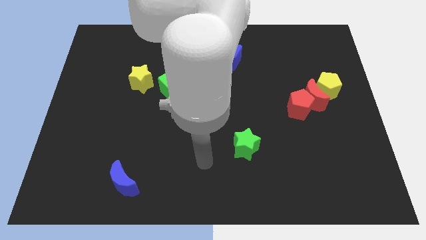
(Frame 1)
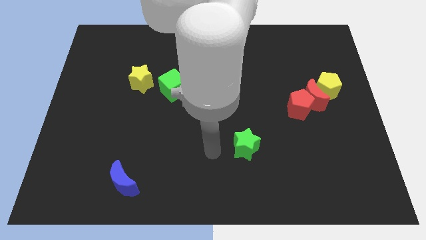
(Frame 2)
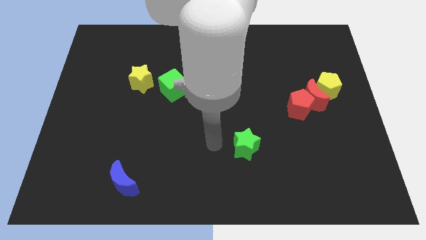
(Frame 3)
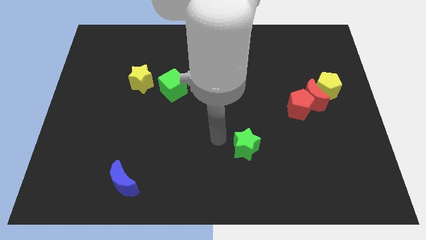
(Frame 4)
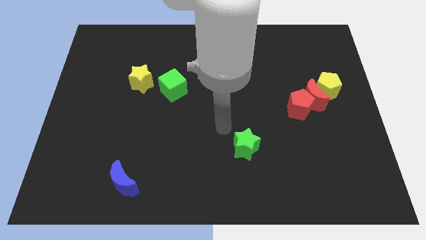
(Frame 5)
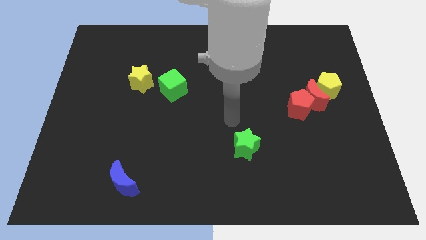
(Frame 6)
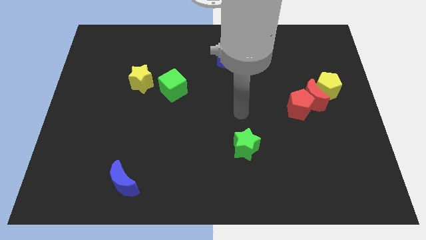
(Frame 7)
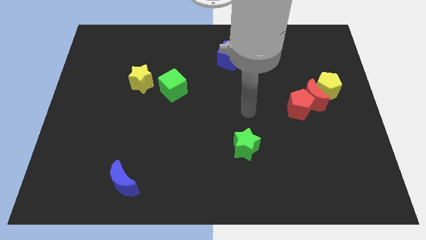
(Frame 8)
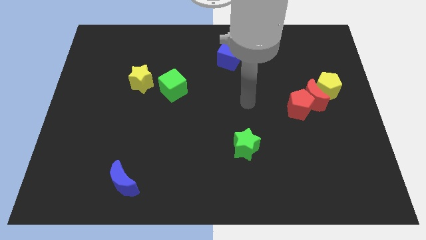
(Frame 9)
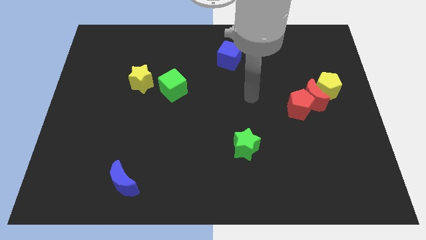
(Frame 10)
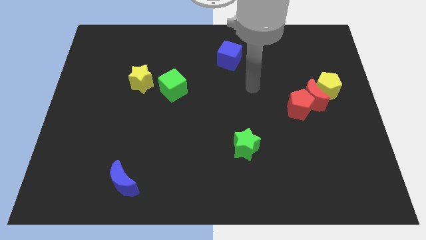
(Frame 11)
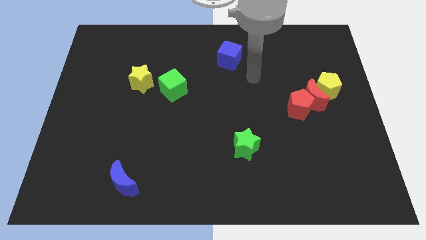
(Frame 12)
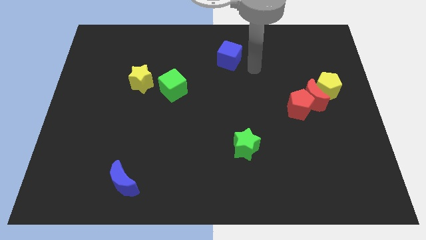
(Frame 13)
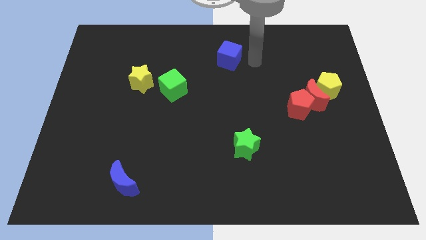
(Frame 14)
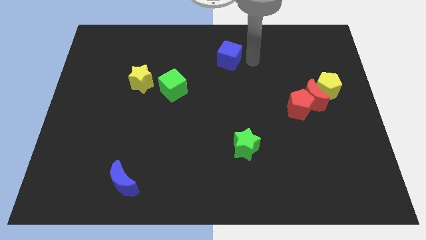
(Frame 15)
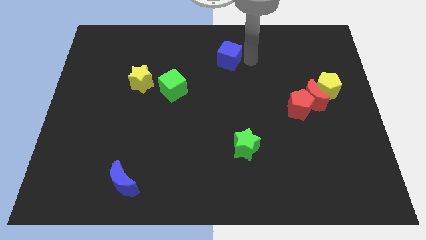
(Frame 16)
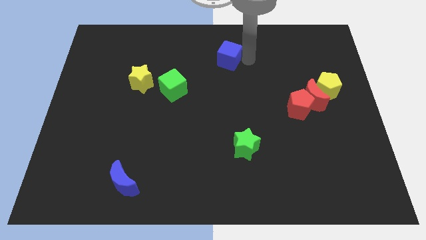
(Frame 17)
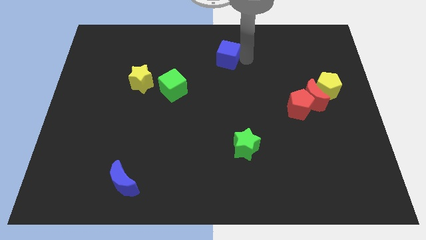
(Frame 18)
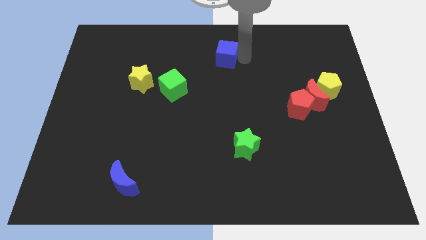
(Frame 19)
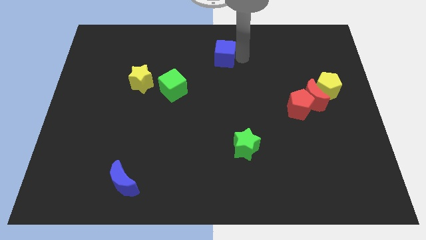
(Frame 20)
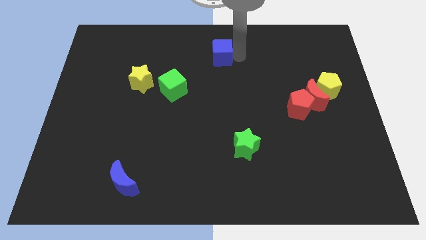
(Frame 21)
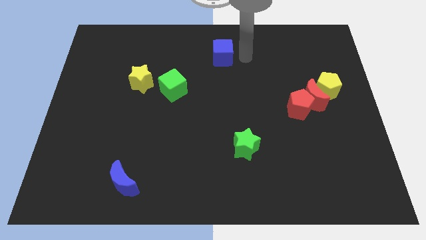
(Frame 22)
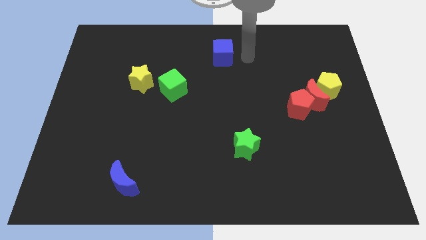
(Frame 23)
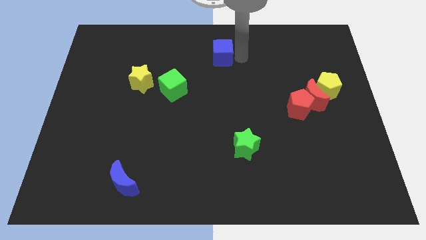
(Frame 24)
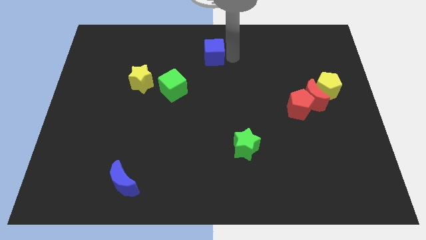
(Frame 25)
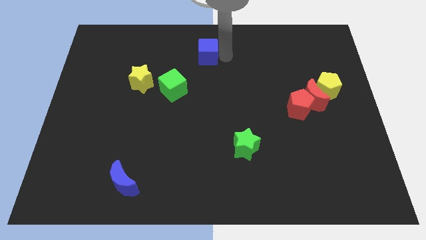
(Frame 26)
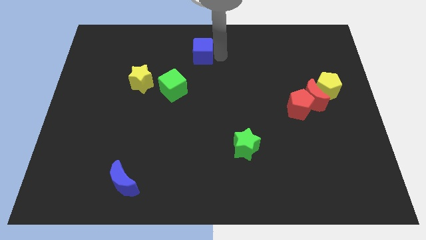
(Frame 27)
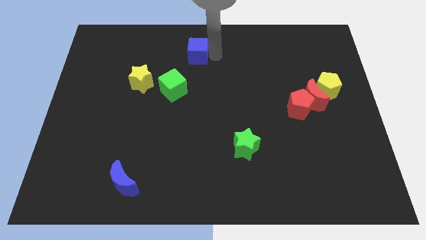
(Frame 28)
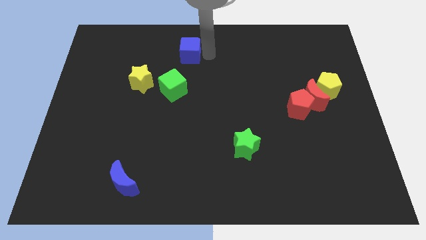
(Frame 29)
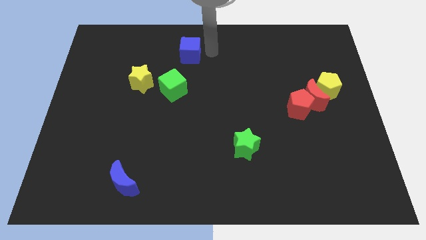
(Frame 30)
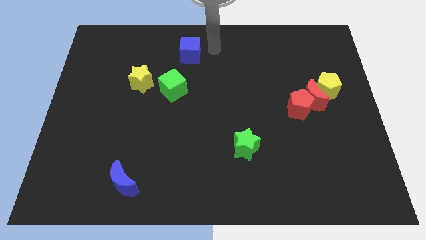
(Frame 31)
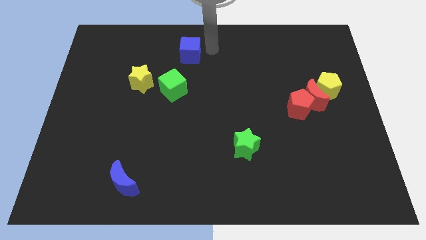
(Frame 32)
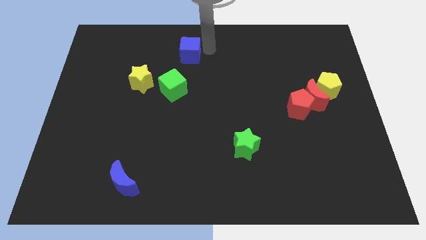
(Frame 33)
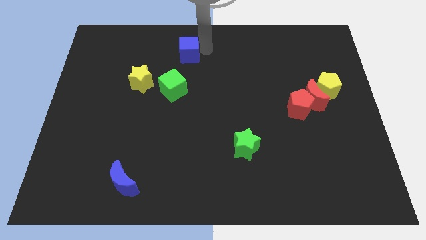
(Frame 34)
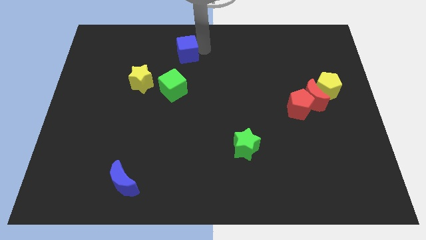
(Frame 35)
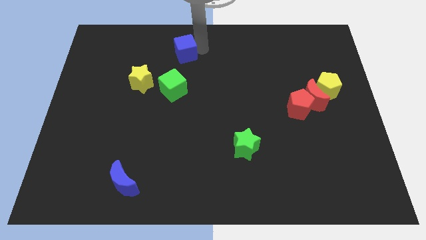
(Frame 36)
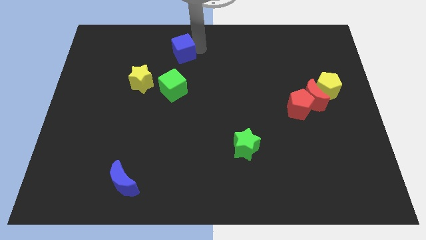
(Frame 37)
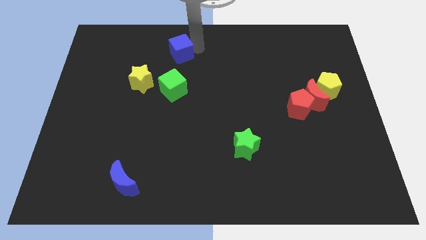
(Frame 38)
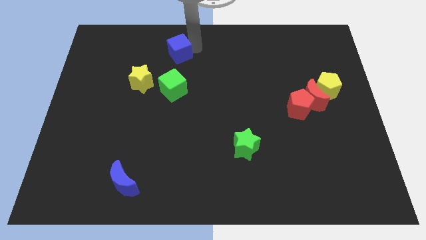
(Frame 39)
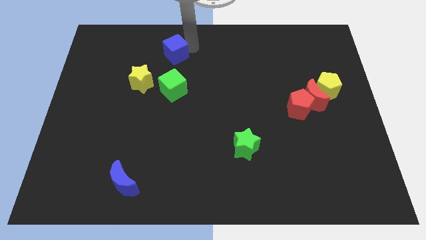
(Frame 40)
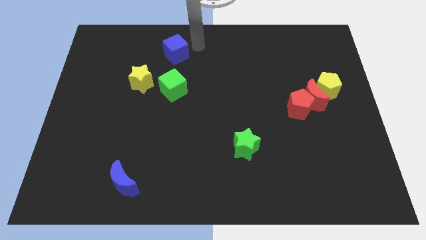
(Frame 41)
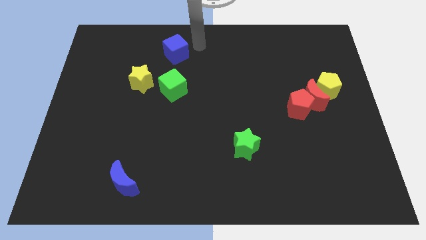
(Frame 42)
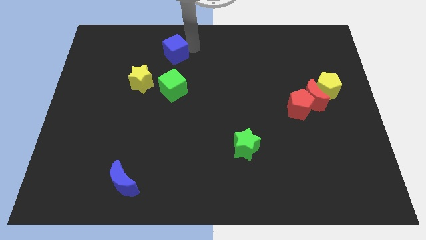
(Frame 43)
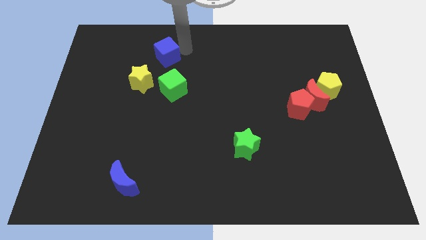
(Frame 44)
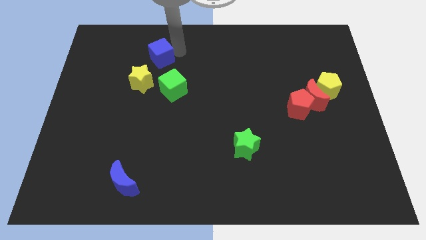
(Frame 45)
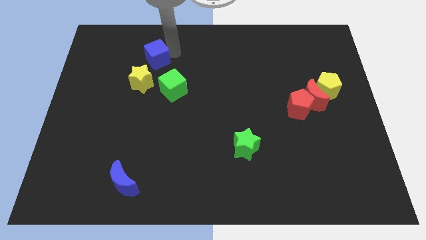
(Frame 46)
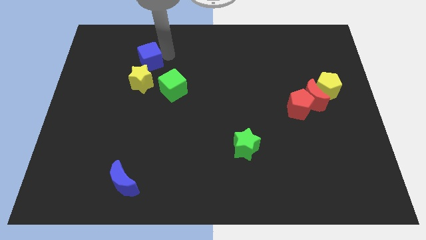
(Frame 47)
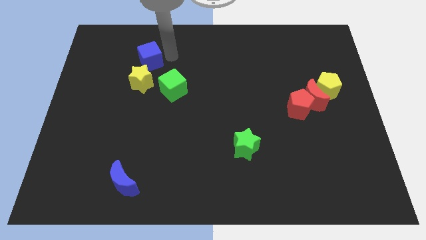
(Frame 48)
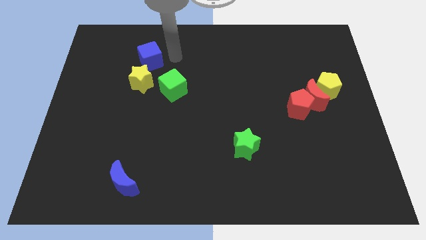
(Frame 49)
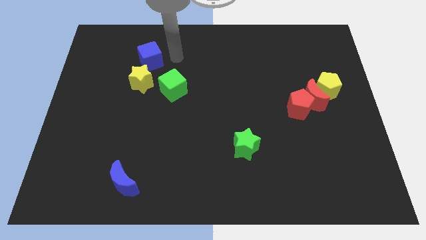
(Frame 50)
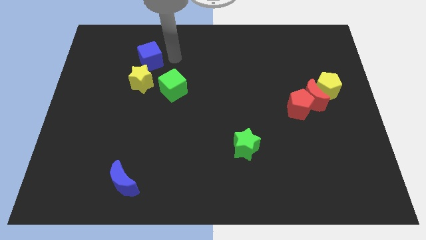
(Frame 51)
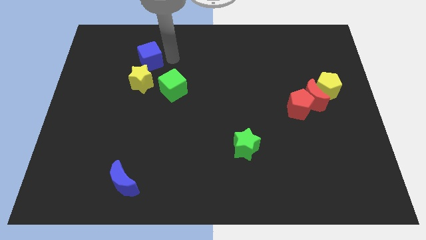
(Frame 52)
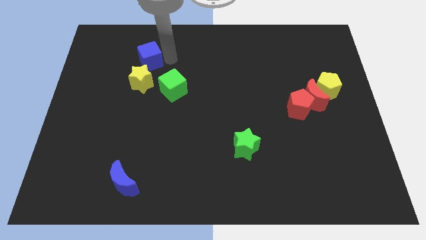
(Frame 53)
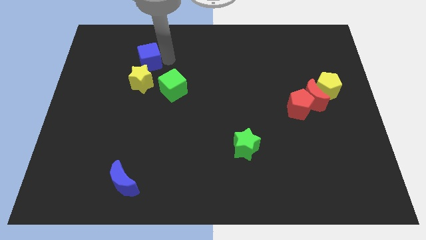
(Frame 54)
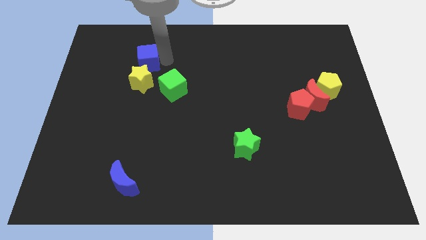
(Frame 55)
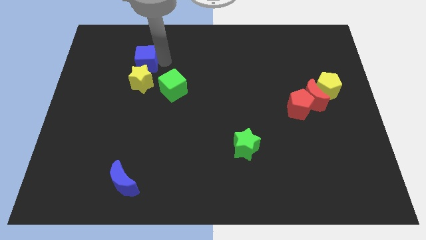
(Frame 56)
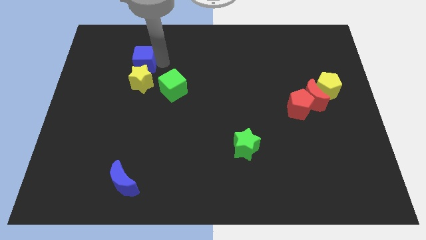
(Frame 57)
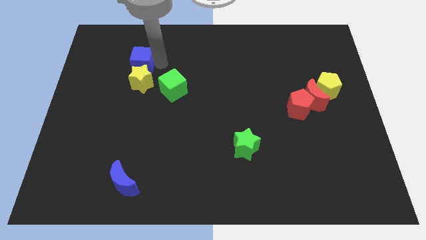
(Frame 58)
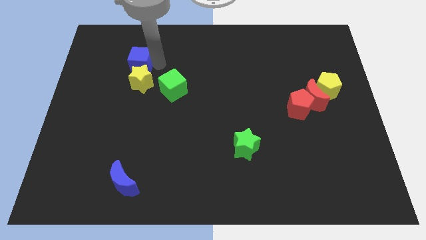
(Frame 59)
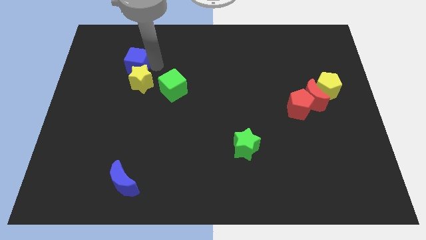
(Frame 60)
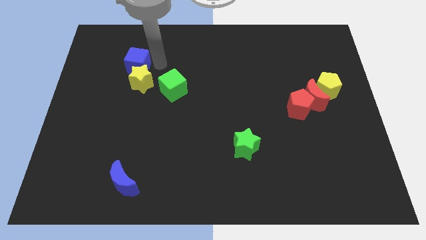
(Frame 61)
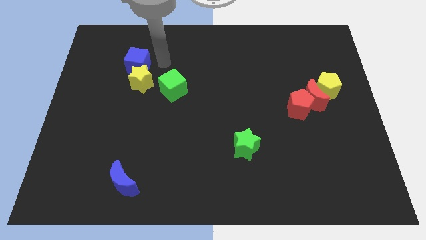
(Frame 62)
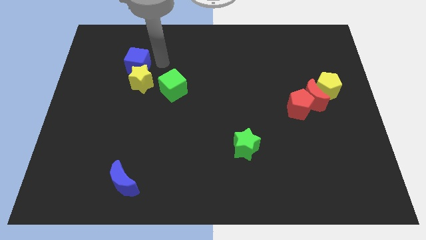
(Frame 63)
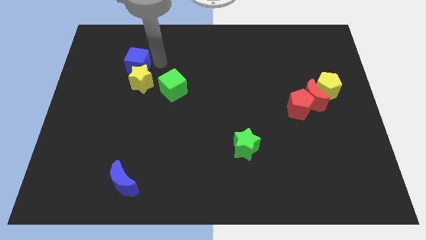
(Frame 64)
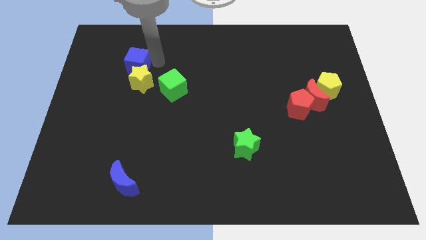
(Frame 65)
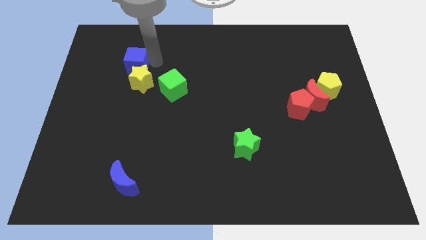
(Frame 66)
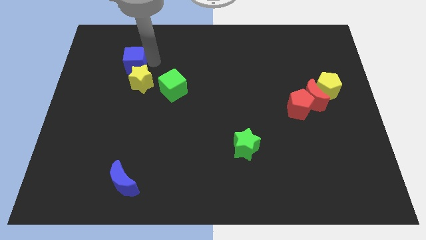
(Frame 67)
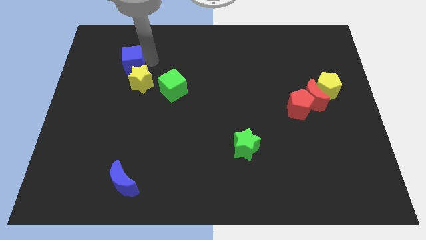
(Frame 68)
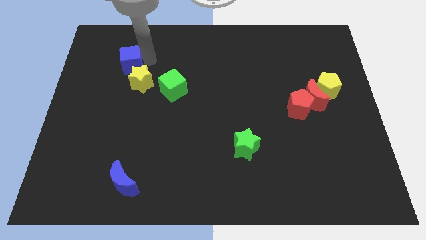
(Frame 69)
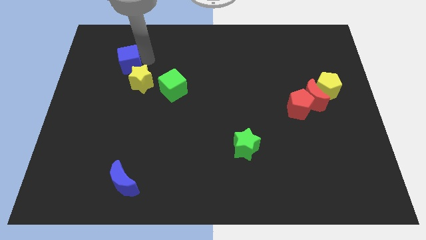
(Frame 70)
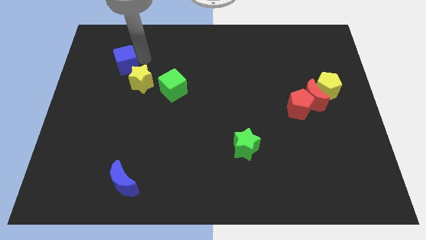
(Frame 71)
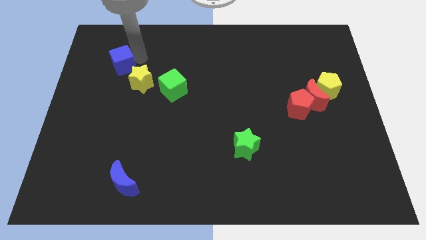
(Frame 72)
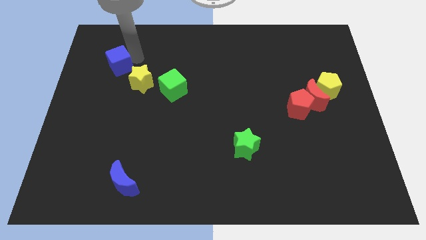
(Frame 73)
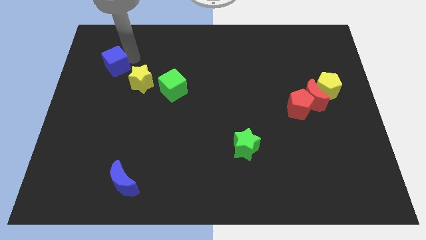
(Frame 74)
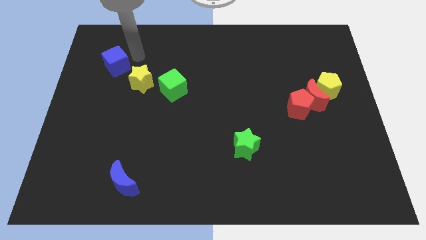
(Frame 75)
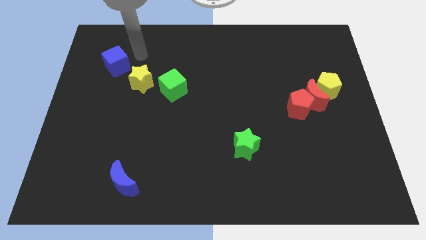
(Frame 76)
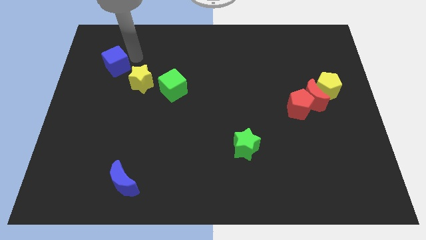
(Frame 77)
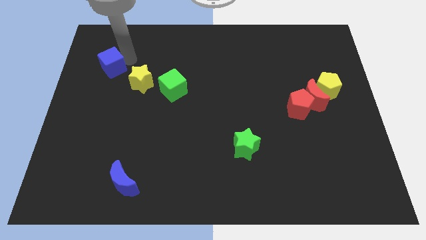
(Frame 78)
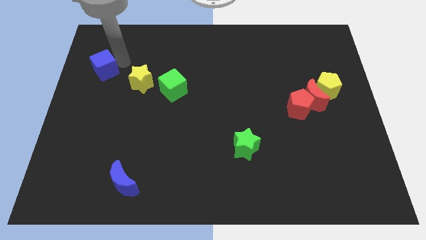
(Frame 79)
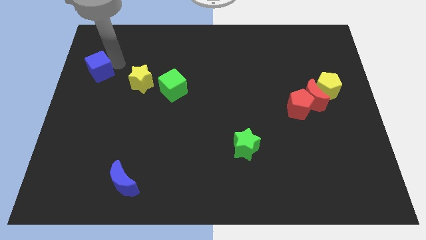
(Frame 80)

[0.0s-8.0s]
put the blue cube to the left side
